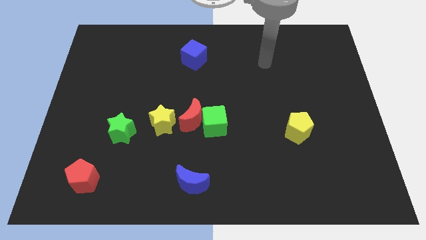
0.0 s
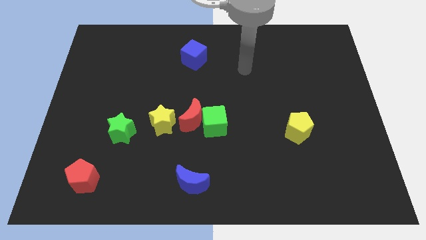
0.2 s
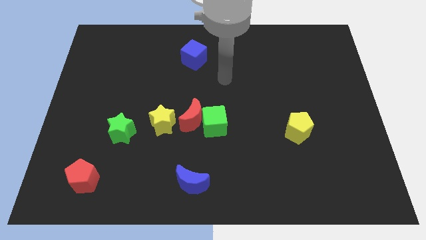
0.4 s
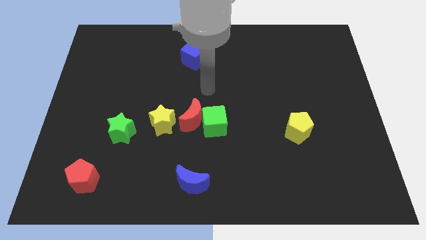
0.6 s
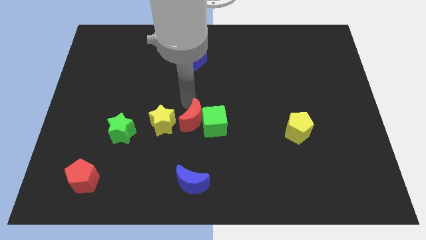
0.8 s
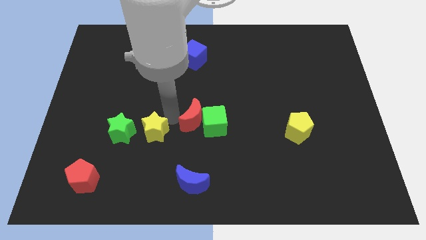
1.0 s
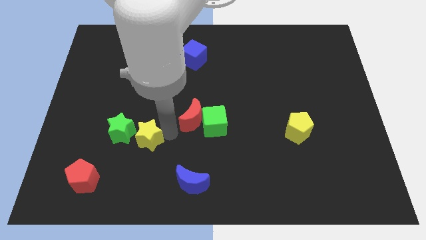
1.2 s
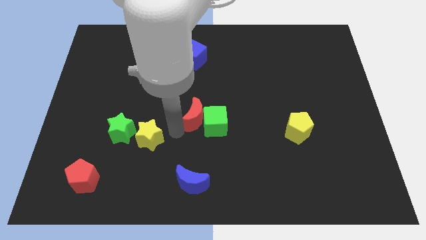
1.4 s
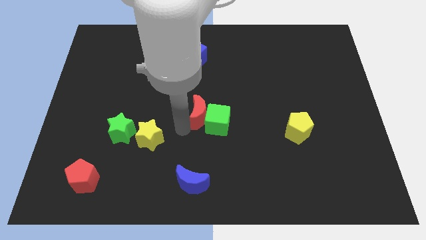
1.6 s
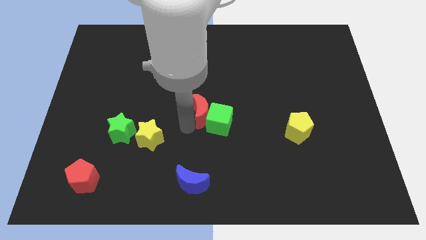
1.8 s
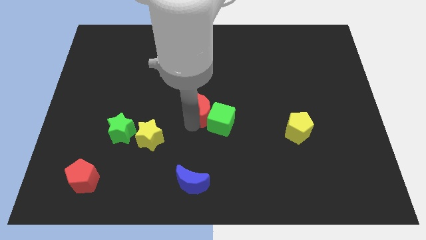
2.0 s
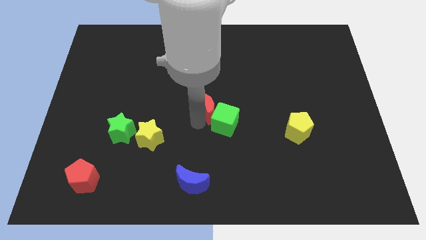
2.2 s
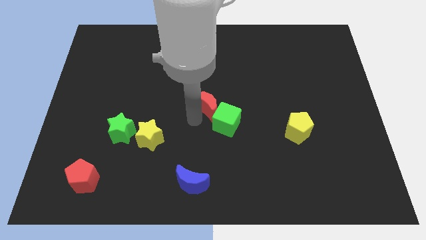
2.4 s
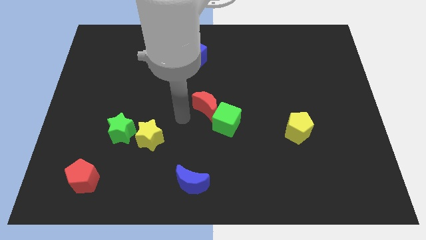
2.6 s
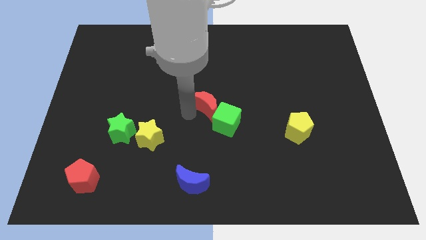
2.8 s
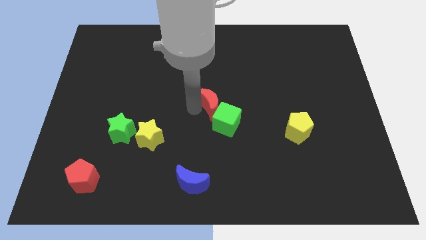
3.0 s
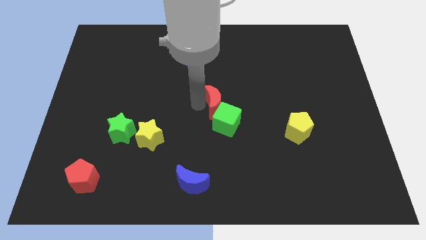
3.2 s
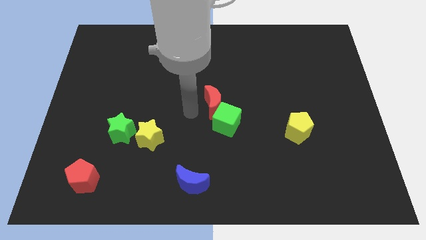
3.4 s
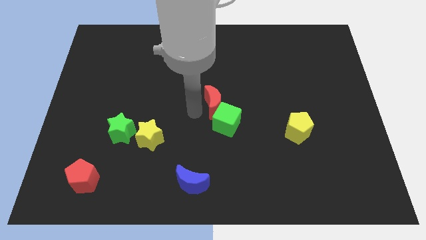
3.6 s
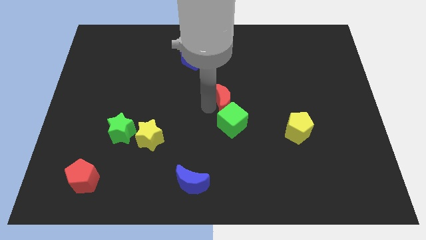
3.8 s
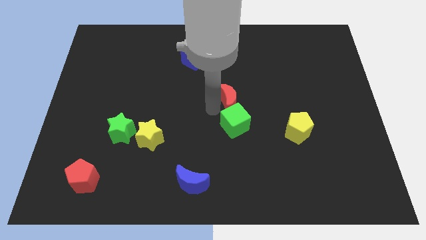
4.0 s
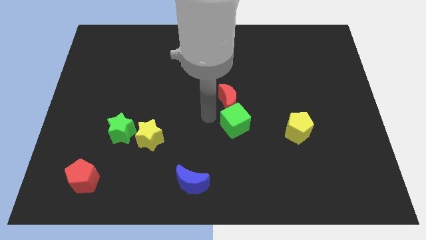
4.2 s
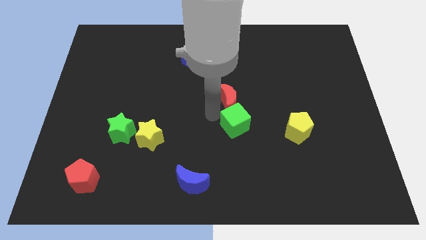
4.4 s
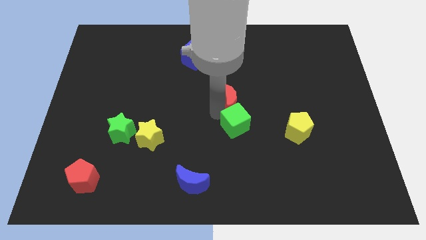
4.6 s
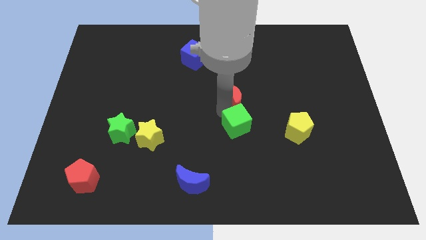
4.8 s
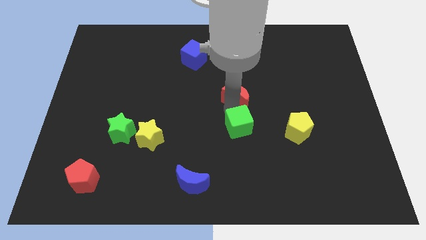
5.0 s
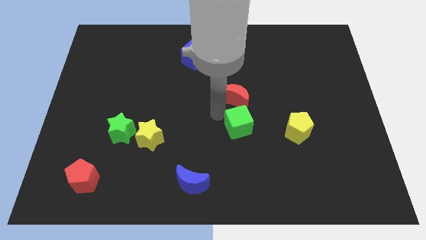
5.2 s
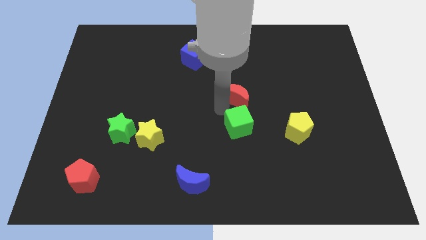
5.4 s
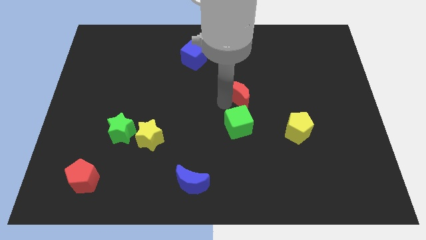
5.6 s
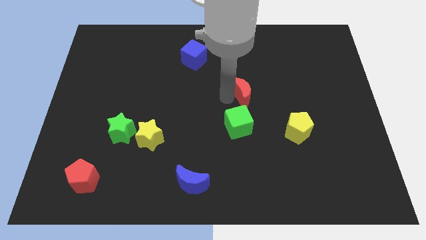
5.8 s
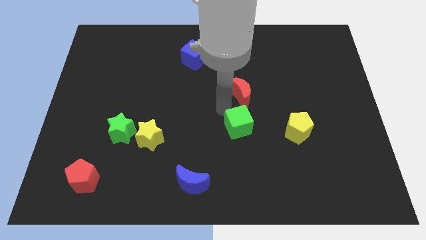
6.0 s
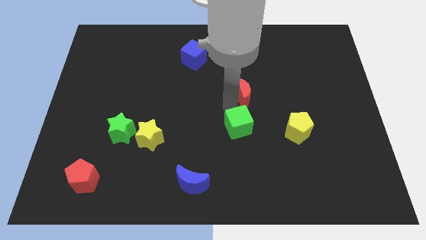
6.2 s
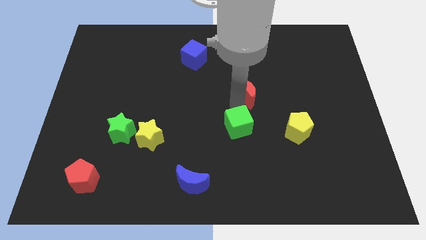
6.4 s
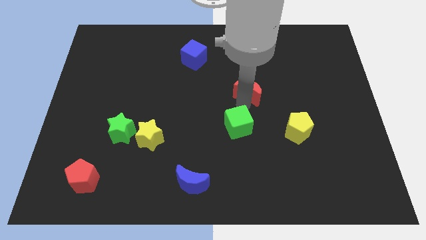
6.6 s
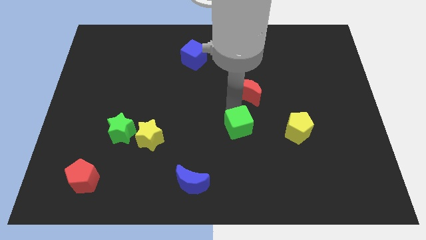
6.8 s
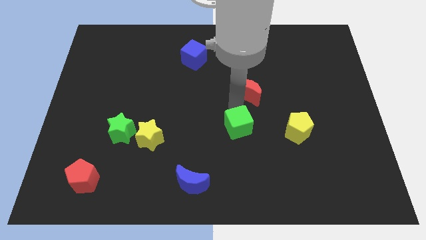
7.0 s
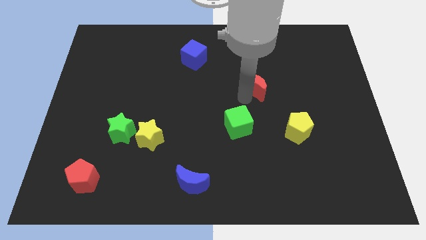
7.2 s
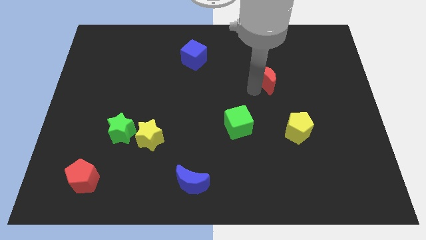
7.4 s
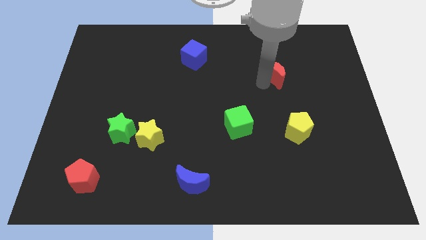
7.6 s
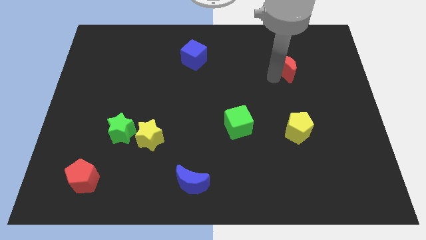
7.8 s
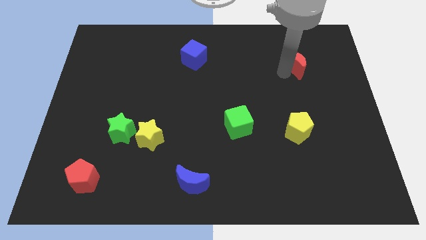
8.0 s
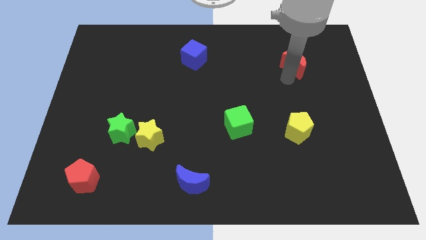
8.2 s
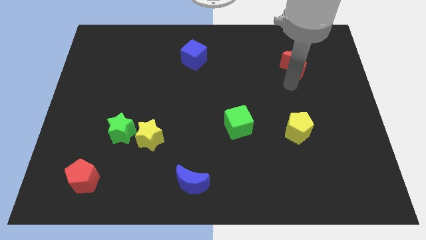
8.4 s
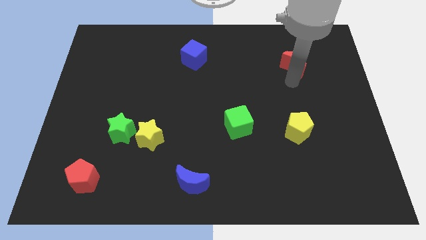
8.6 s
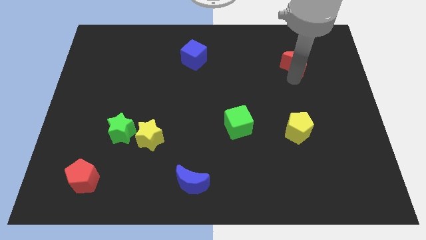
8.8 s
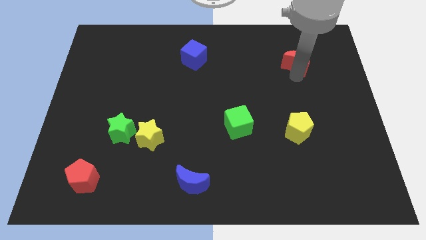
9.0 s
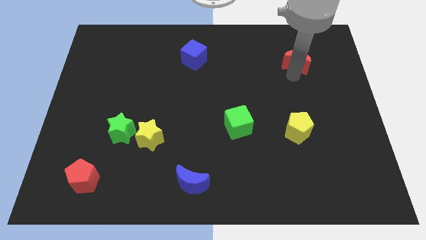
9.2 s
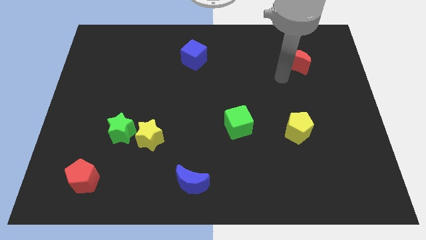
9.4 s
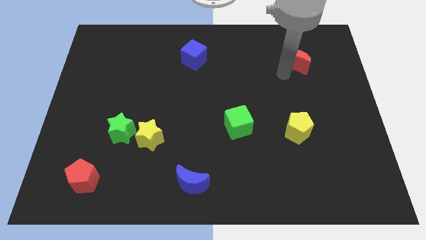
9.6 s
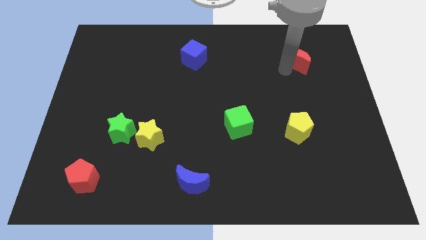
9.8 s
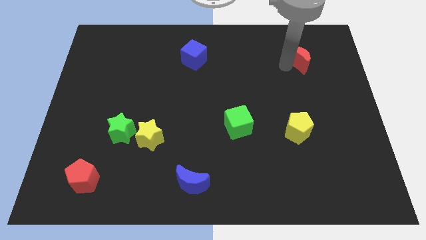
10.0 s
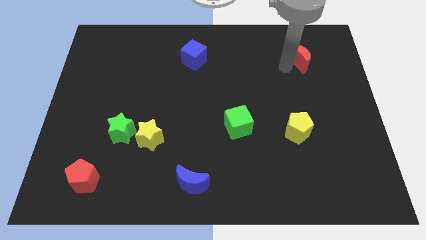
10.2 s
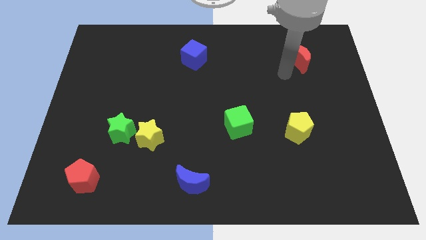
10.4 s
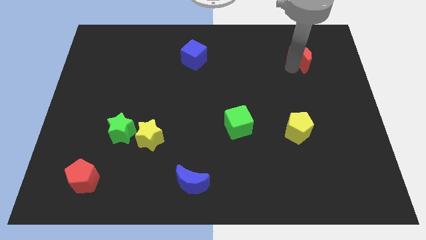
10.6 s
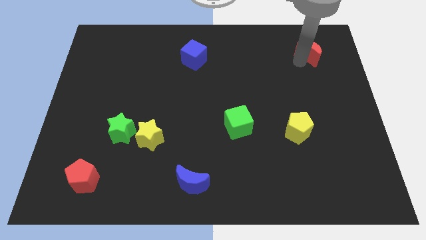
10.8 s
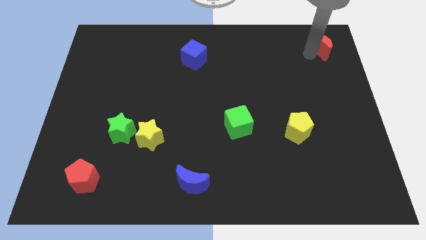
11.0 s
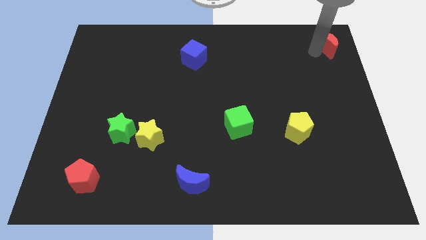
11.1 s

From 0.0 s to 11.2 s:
put the red moon to the upper right corner

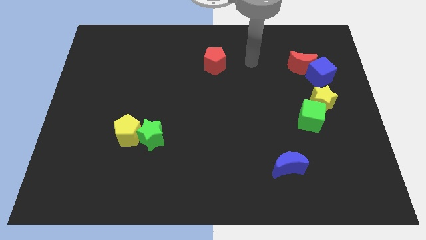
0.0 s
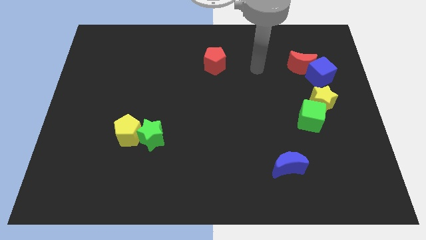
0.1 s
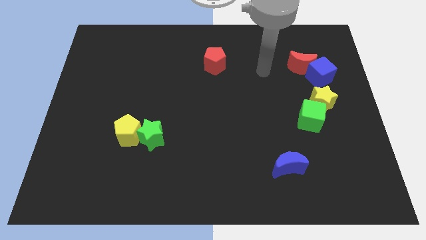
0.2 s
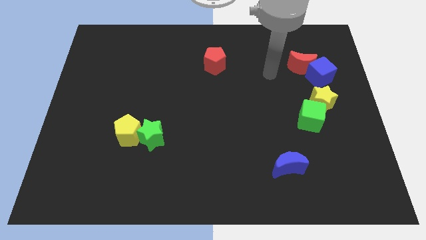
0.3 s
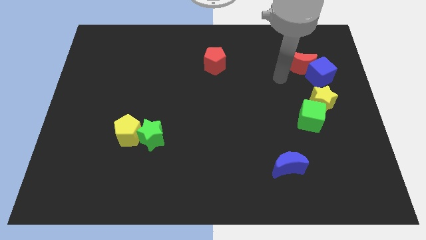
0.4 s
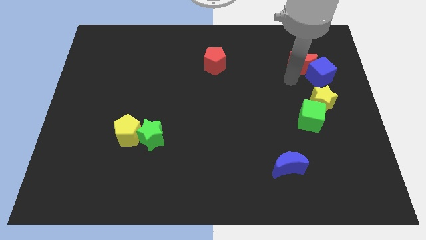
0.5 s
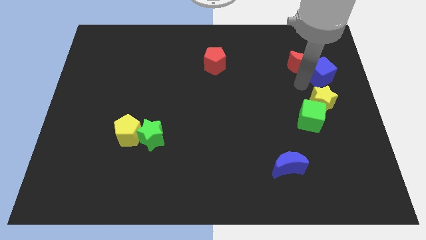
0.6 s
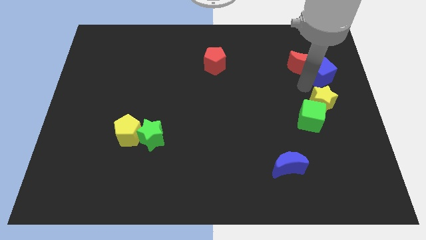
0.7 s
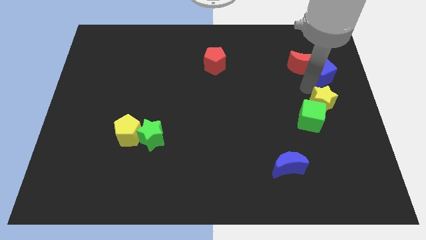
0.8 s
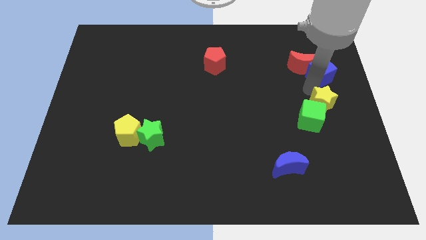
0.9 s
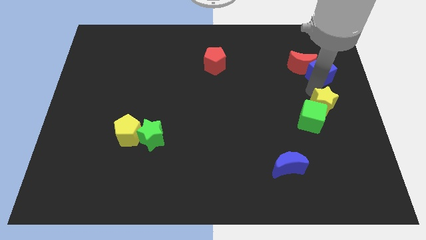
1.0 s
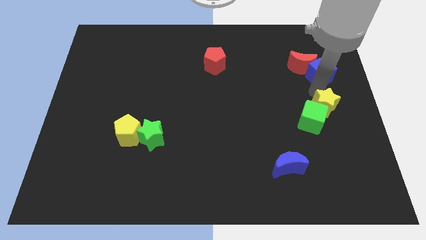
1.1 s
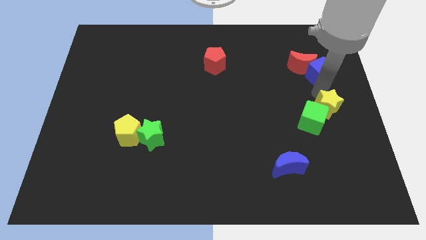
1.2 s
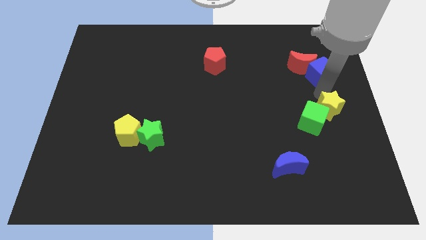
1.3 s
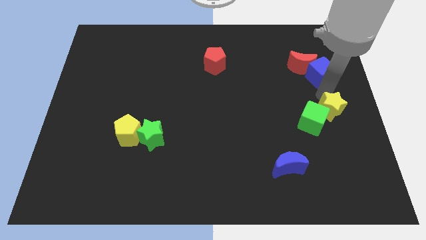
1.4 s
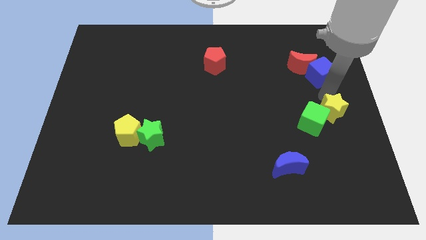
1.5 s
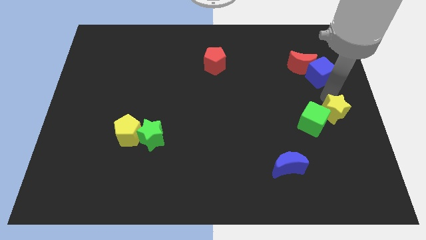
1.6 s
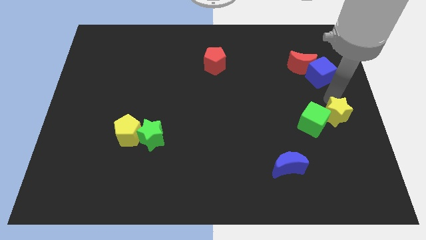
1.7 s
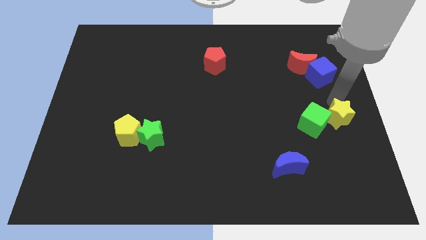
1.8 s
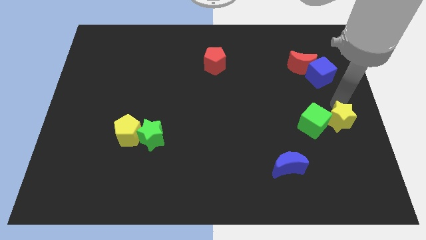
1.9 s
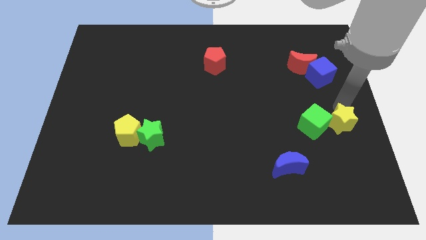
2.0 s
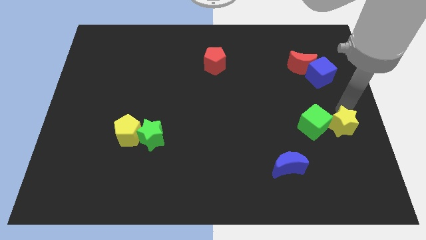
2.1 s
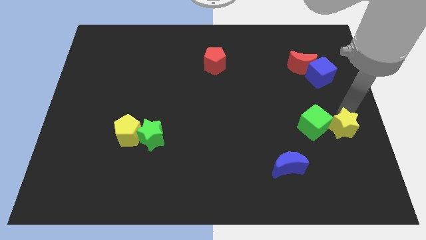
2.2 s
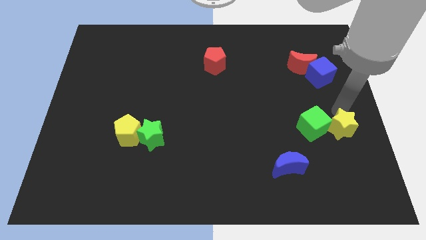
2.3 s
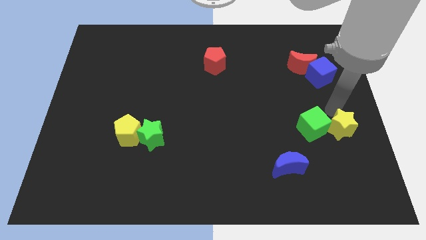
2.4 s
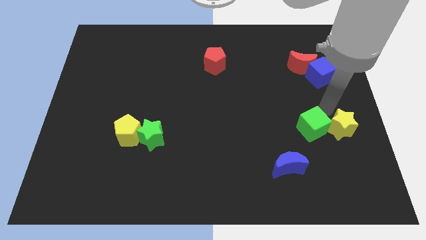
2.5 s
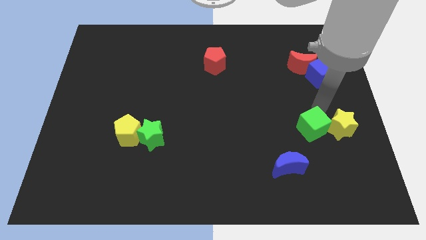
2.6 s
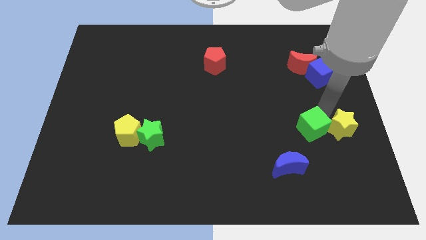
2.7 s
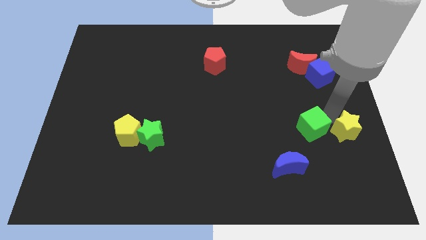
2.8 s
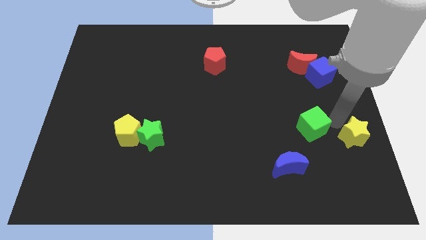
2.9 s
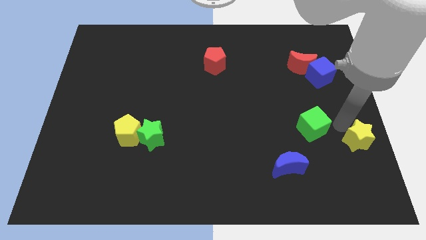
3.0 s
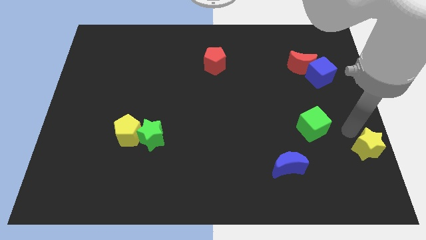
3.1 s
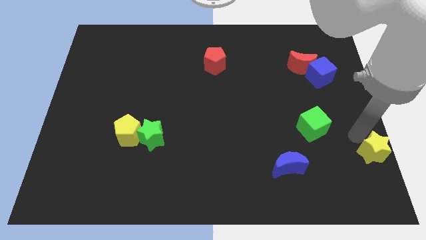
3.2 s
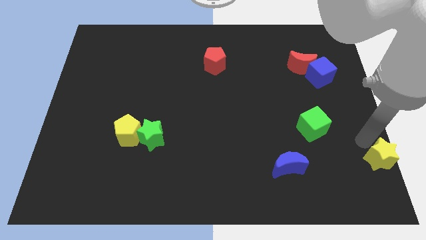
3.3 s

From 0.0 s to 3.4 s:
move the yellow star to the lower right corner
